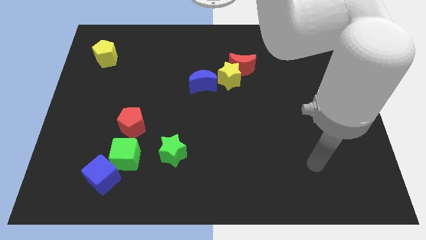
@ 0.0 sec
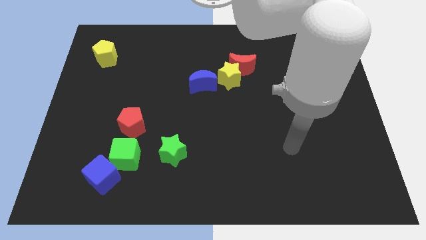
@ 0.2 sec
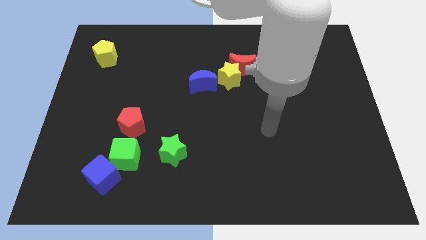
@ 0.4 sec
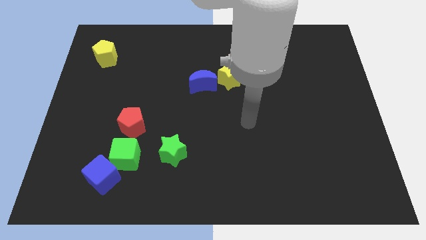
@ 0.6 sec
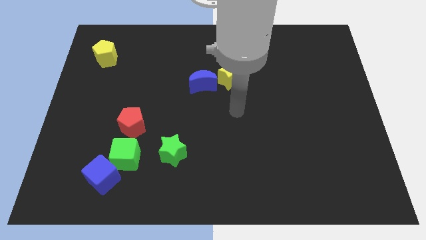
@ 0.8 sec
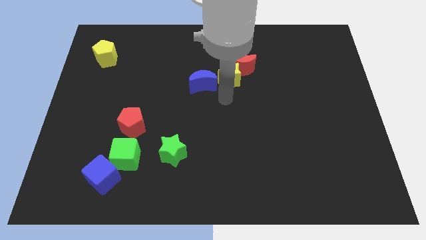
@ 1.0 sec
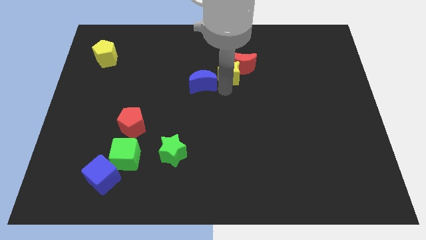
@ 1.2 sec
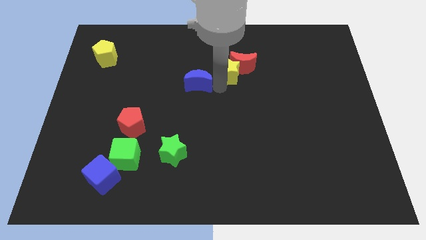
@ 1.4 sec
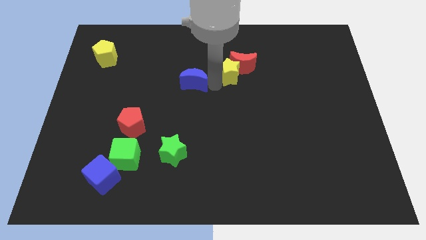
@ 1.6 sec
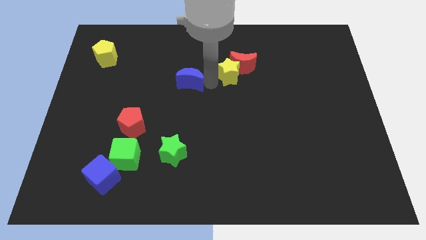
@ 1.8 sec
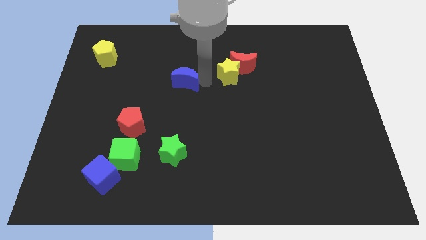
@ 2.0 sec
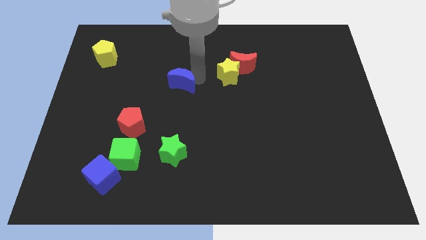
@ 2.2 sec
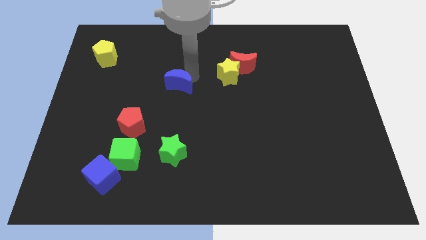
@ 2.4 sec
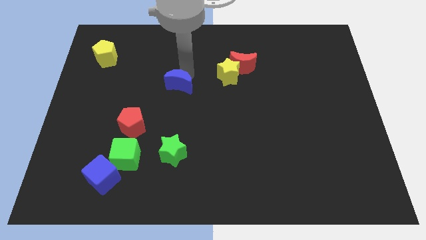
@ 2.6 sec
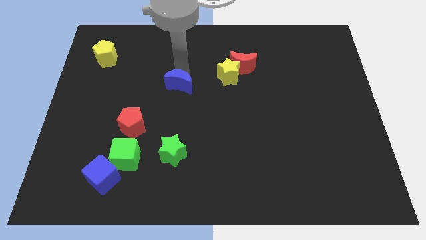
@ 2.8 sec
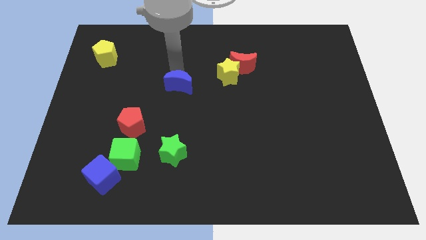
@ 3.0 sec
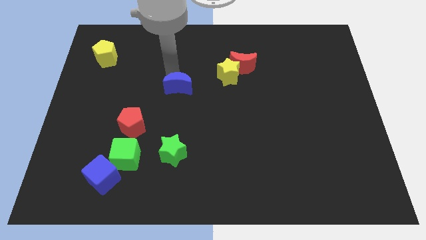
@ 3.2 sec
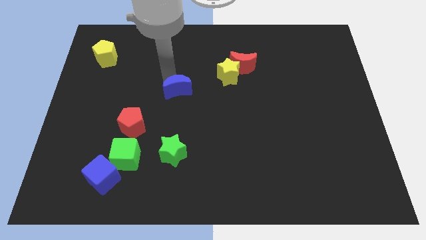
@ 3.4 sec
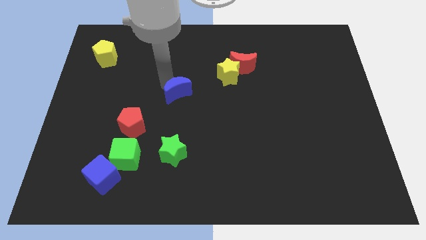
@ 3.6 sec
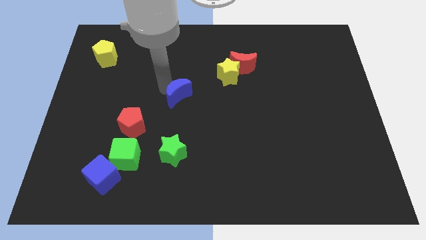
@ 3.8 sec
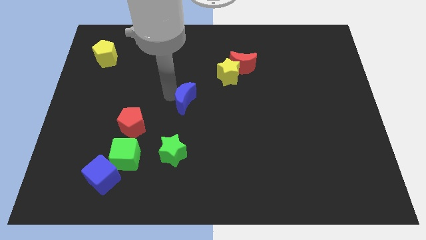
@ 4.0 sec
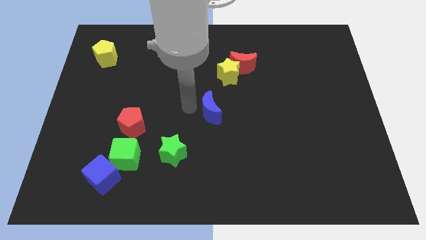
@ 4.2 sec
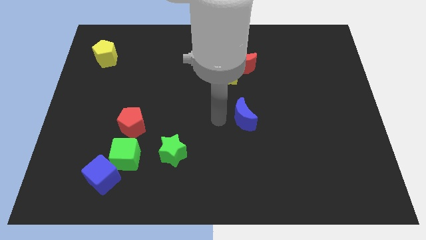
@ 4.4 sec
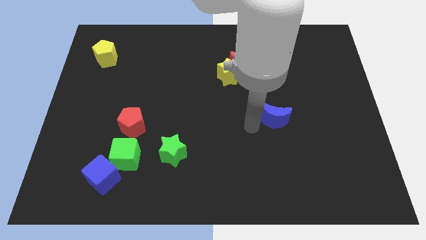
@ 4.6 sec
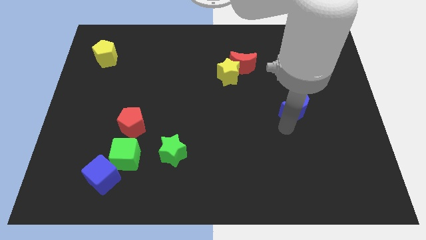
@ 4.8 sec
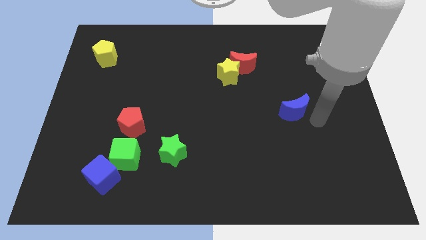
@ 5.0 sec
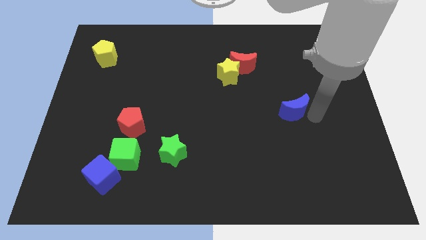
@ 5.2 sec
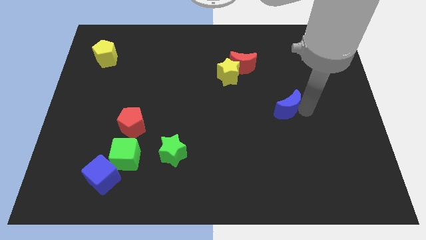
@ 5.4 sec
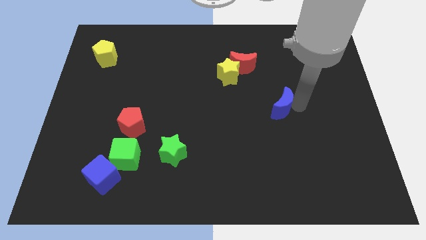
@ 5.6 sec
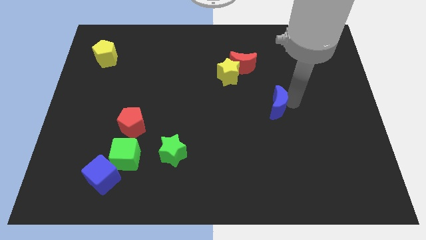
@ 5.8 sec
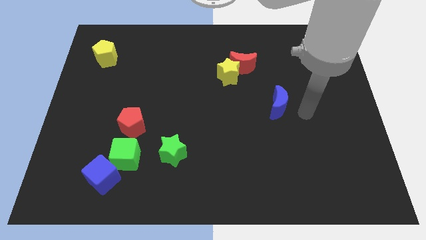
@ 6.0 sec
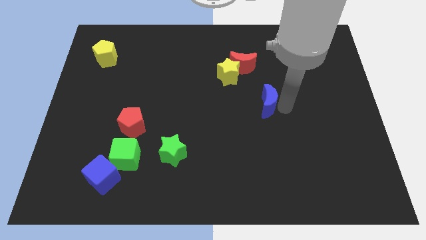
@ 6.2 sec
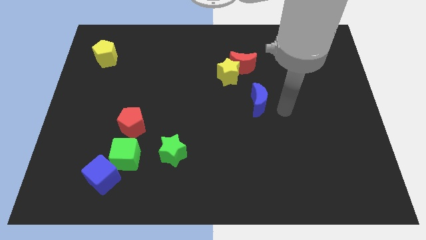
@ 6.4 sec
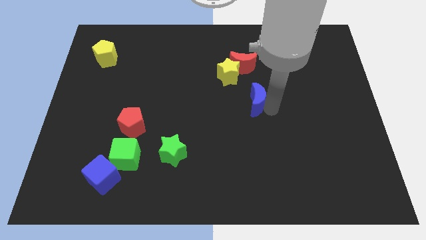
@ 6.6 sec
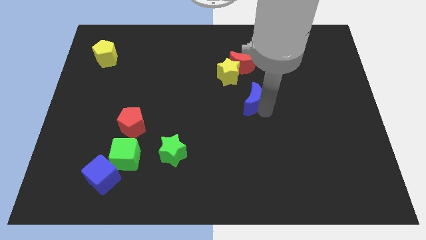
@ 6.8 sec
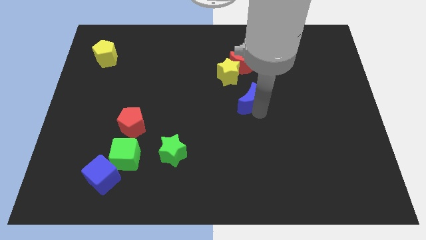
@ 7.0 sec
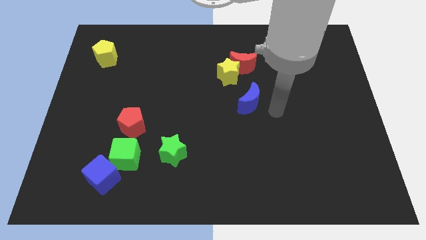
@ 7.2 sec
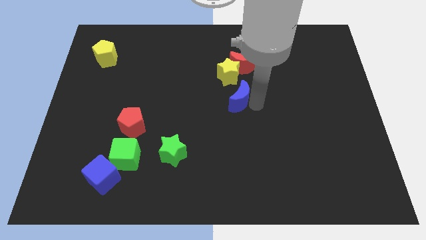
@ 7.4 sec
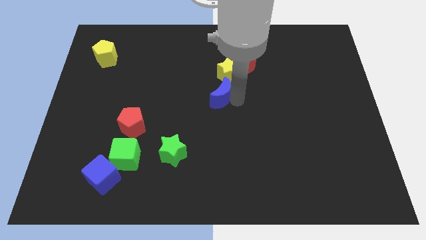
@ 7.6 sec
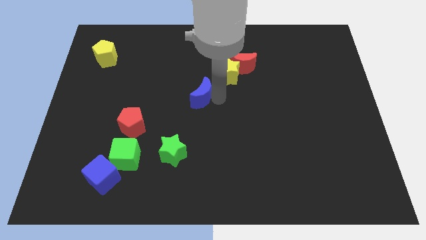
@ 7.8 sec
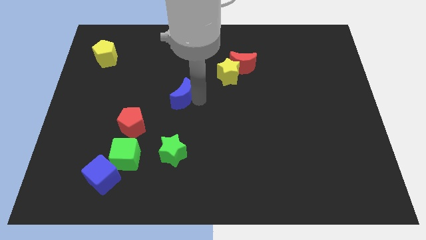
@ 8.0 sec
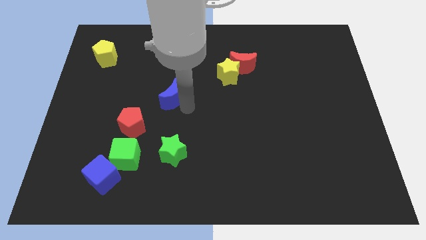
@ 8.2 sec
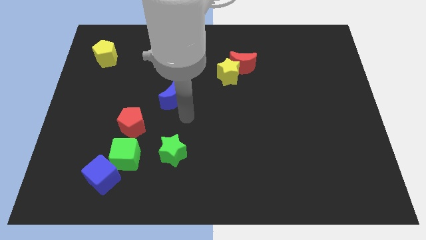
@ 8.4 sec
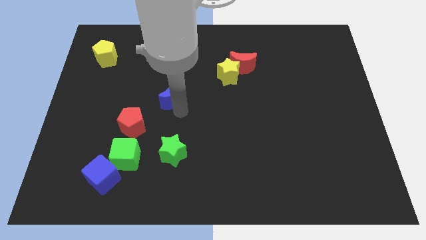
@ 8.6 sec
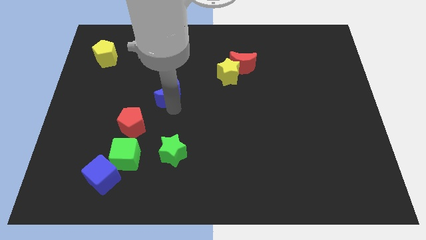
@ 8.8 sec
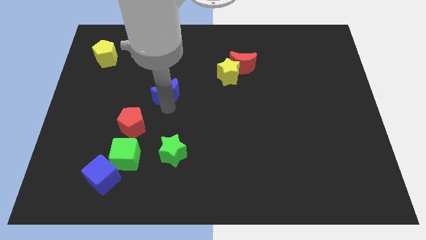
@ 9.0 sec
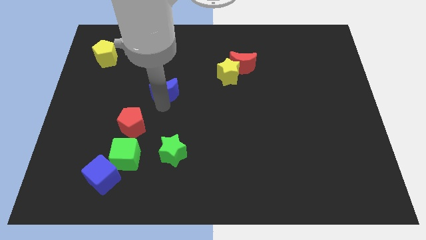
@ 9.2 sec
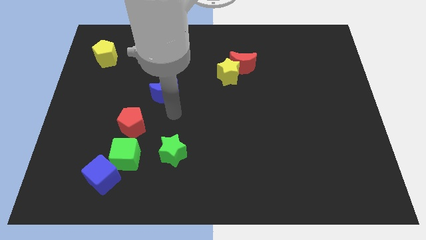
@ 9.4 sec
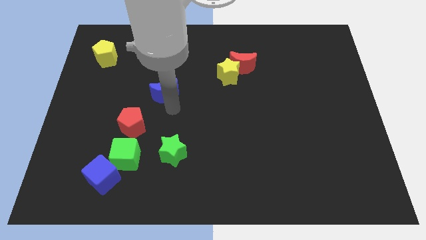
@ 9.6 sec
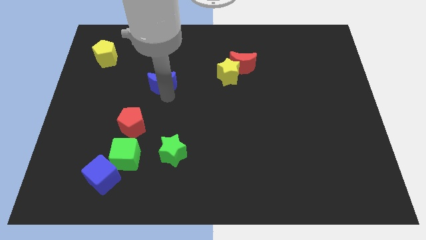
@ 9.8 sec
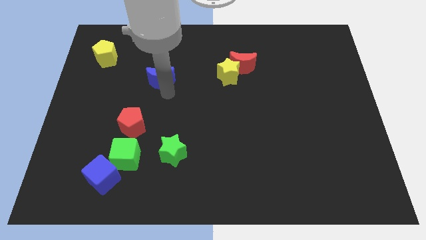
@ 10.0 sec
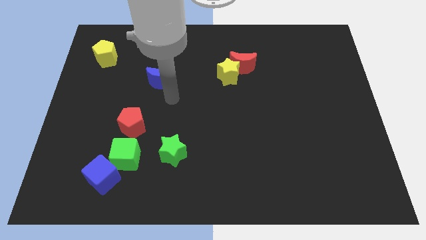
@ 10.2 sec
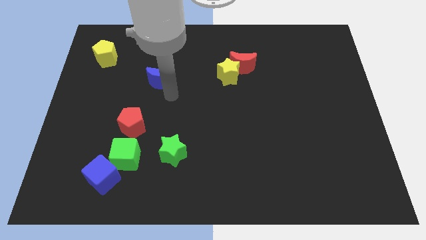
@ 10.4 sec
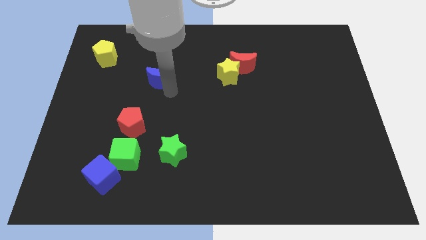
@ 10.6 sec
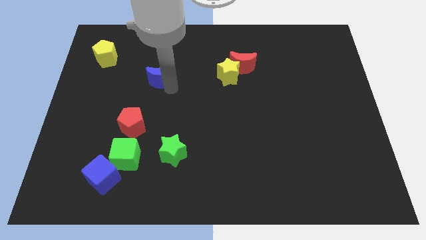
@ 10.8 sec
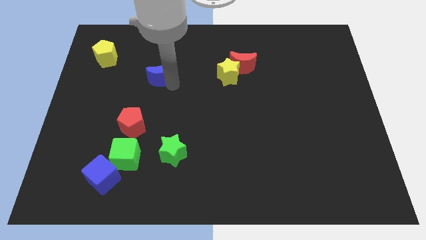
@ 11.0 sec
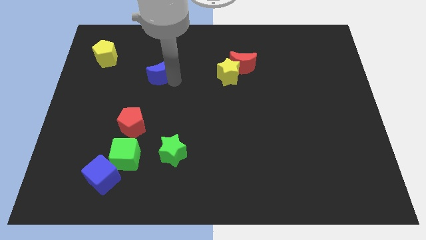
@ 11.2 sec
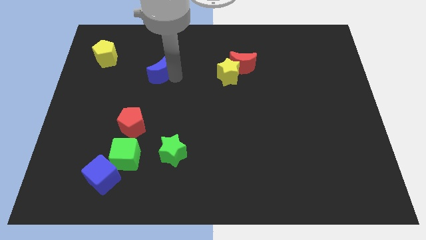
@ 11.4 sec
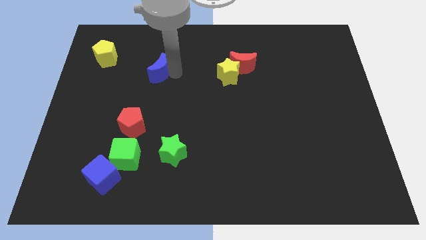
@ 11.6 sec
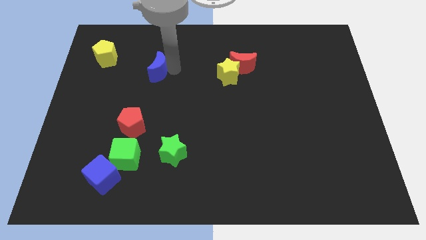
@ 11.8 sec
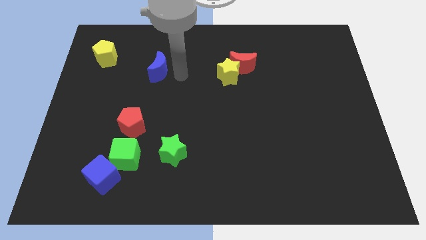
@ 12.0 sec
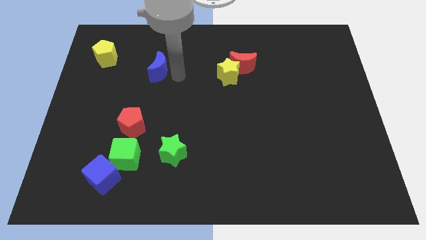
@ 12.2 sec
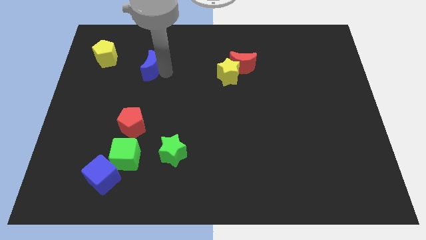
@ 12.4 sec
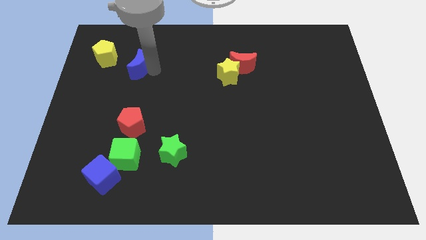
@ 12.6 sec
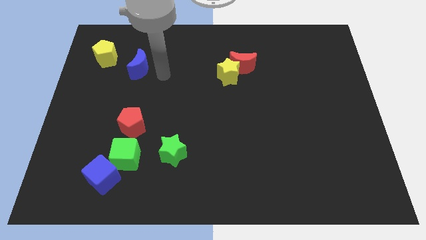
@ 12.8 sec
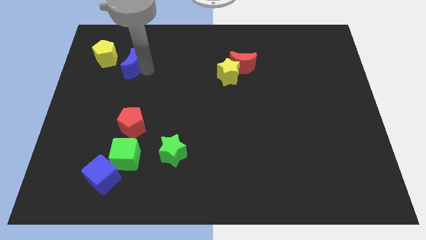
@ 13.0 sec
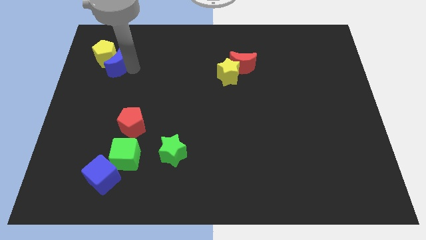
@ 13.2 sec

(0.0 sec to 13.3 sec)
slide the blue moon close to the yellow pentagon

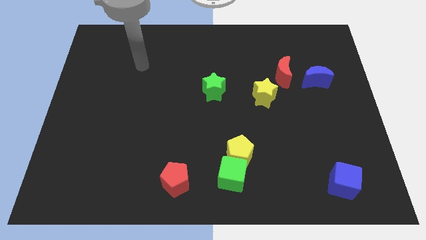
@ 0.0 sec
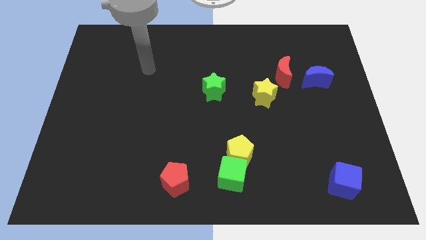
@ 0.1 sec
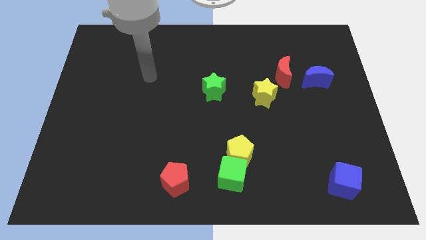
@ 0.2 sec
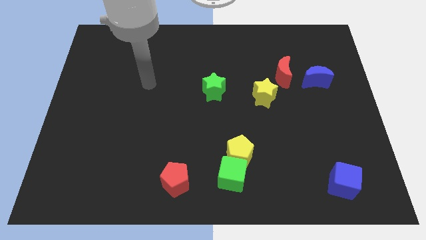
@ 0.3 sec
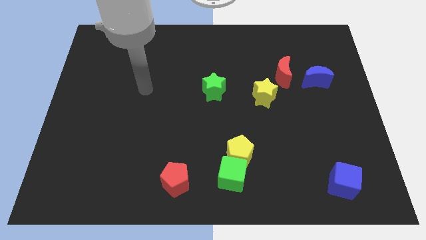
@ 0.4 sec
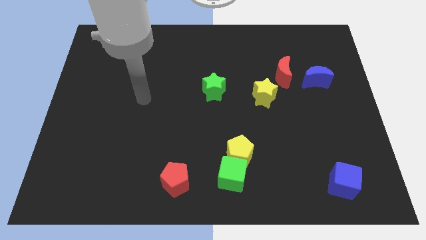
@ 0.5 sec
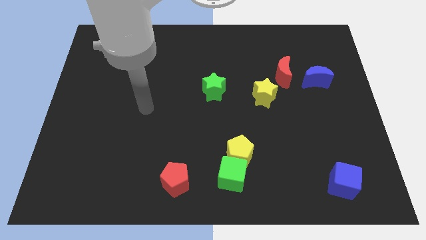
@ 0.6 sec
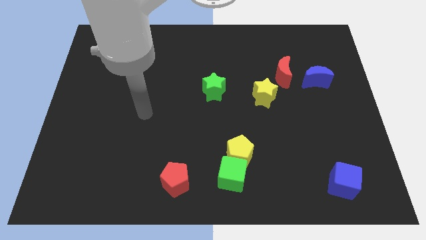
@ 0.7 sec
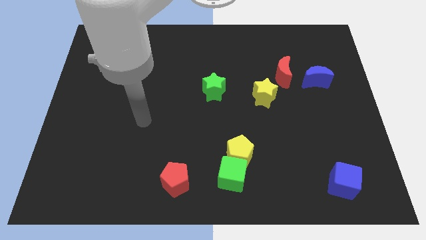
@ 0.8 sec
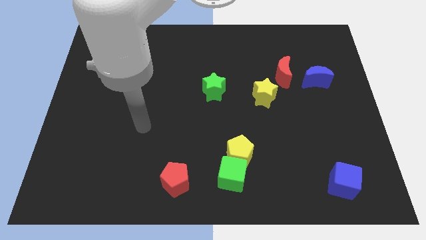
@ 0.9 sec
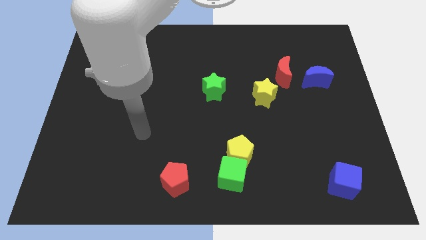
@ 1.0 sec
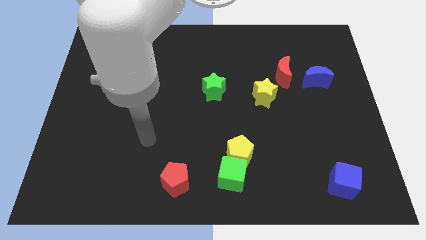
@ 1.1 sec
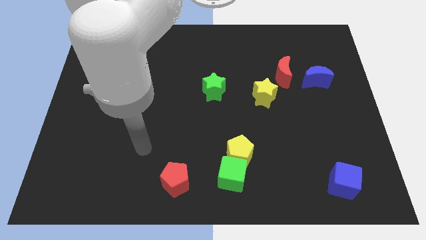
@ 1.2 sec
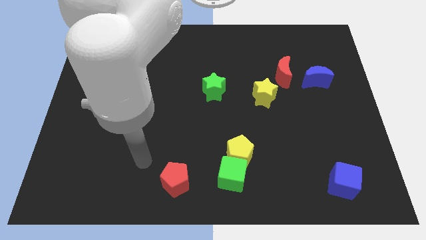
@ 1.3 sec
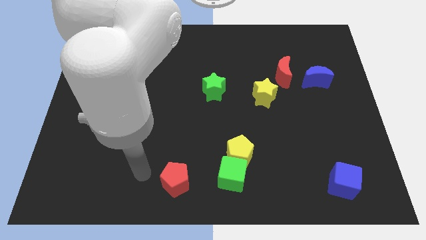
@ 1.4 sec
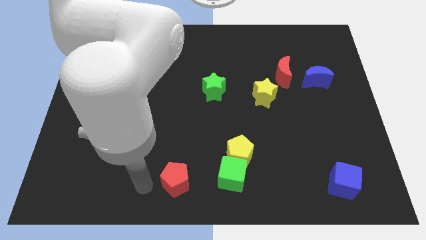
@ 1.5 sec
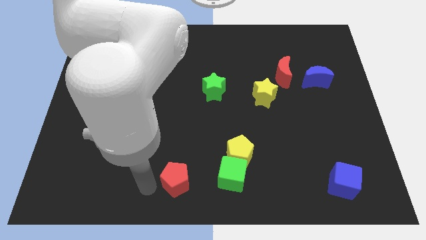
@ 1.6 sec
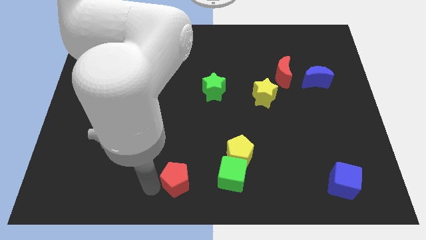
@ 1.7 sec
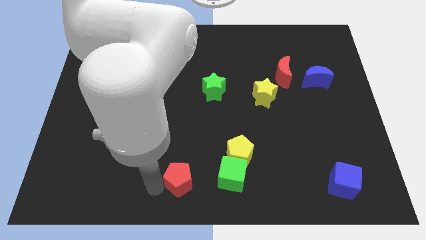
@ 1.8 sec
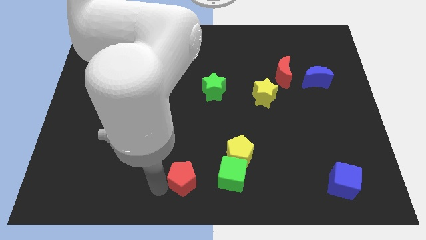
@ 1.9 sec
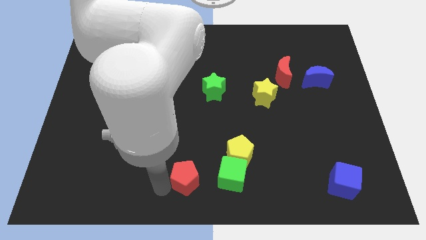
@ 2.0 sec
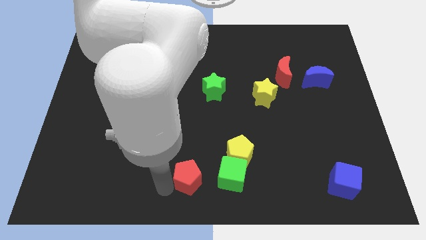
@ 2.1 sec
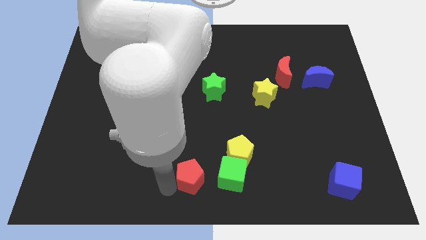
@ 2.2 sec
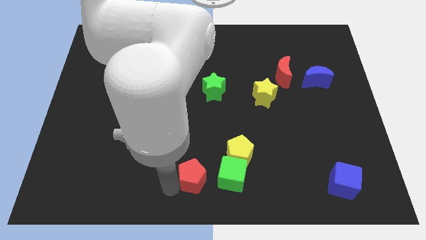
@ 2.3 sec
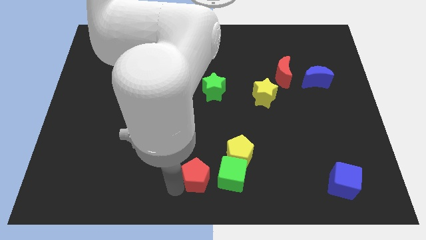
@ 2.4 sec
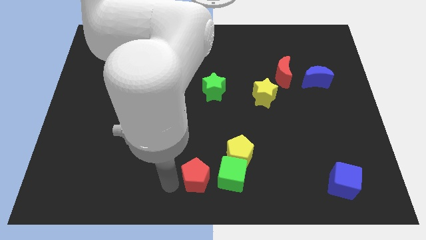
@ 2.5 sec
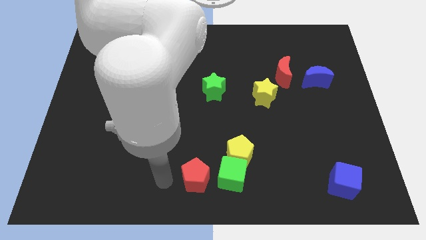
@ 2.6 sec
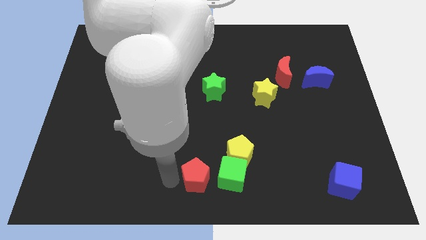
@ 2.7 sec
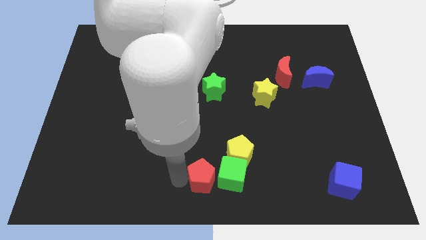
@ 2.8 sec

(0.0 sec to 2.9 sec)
slide the red pentagon close to the green cube
